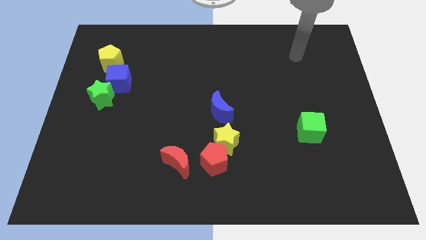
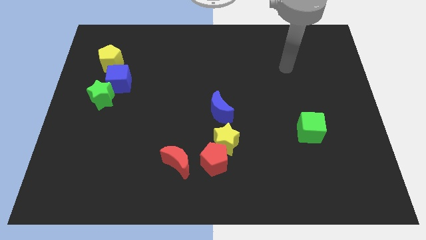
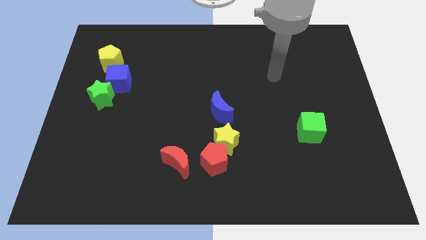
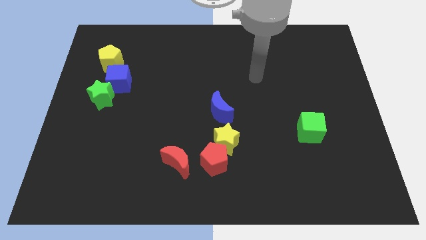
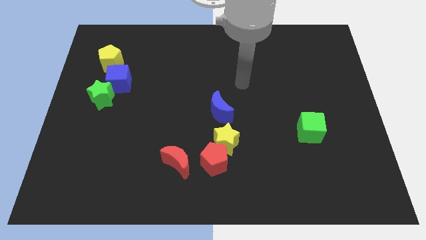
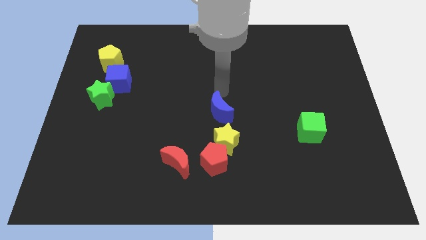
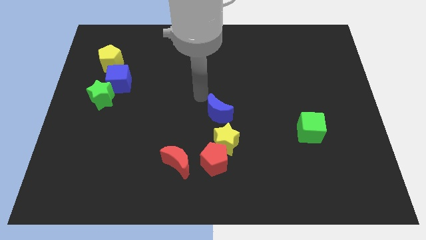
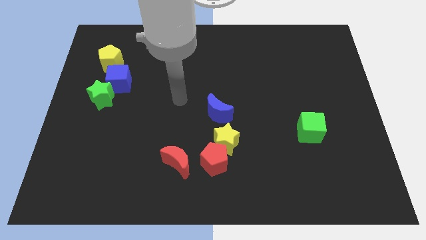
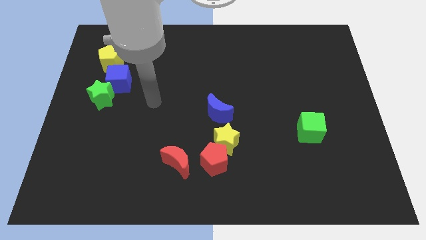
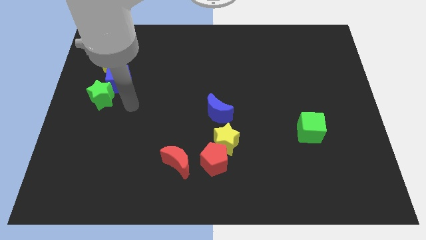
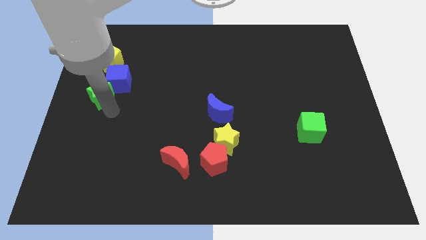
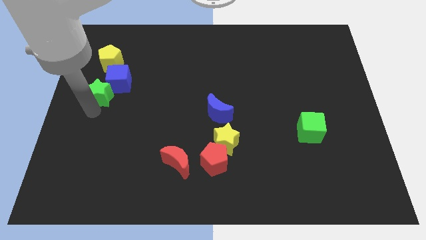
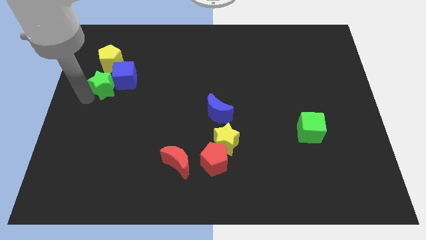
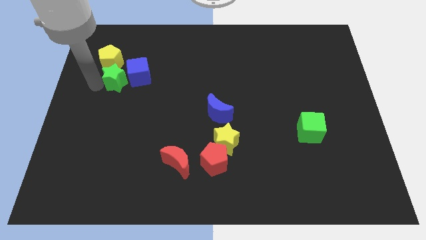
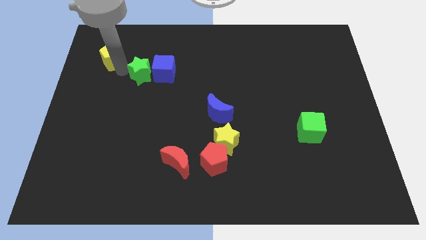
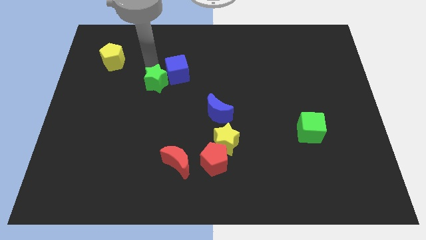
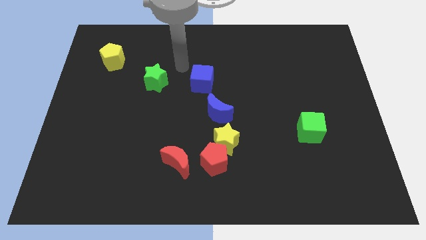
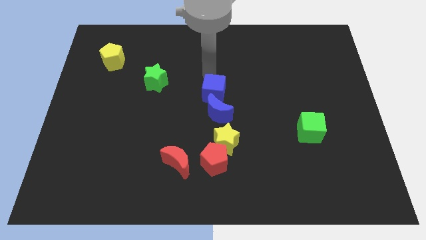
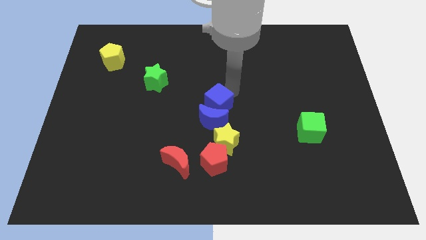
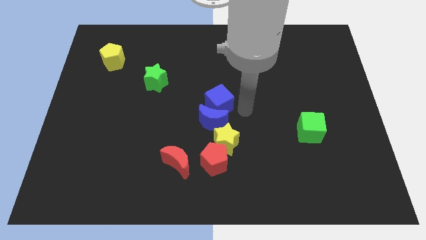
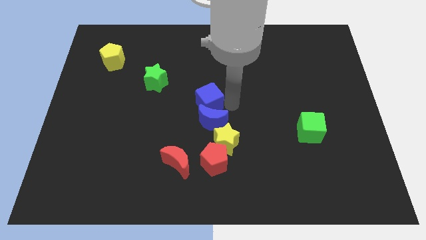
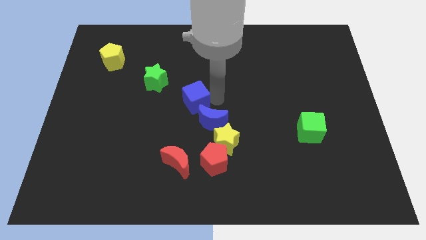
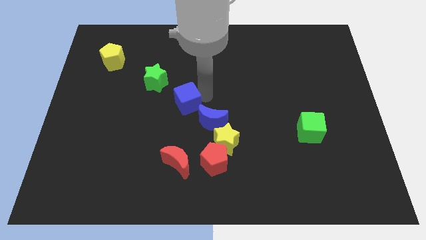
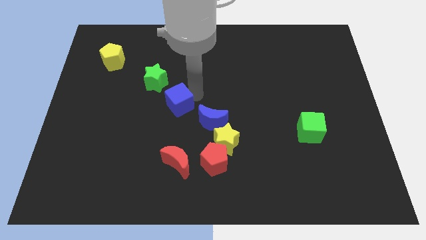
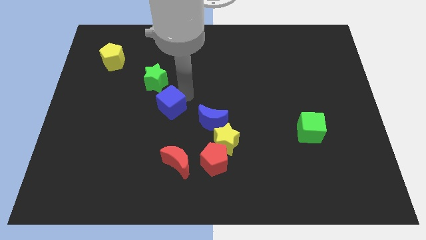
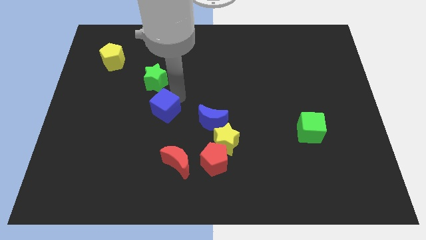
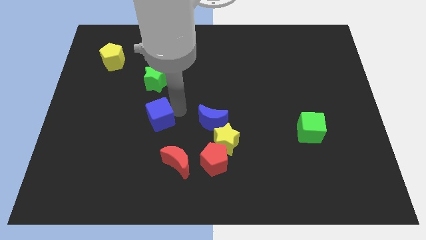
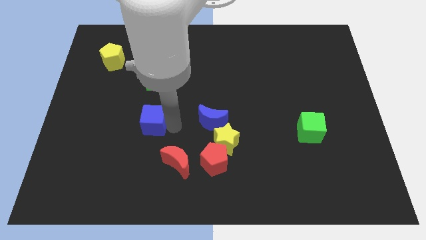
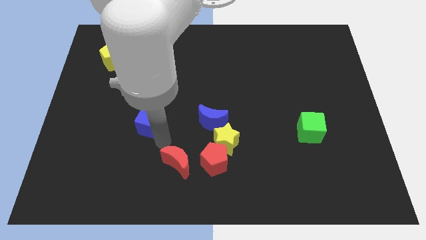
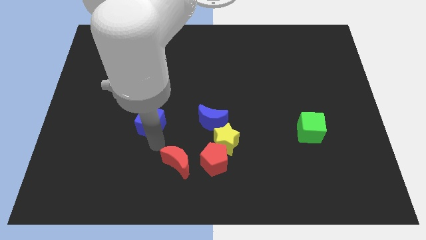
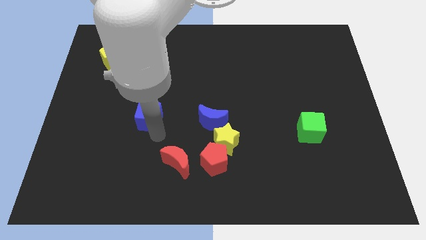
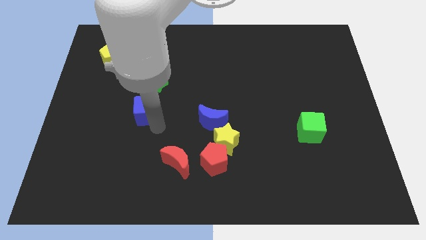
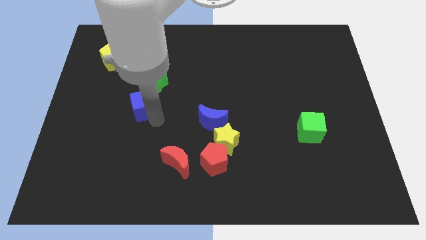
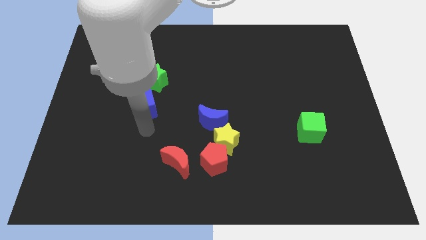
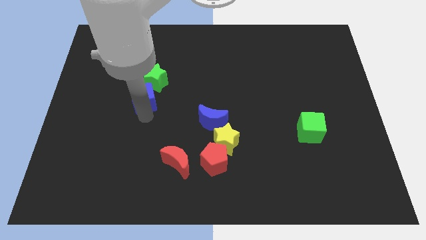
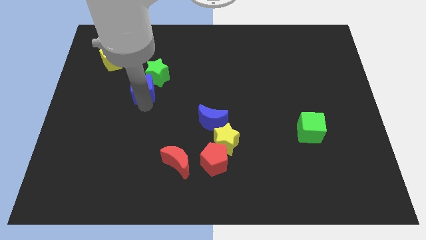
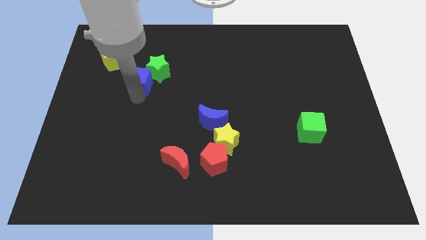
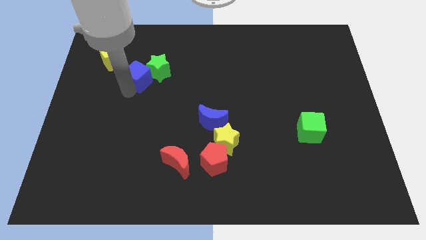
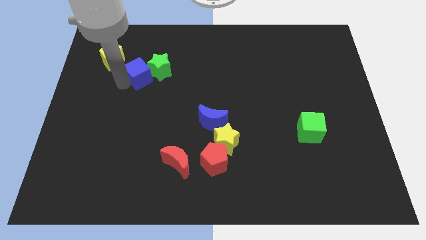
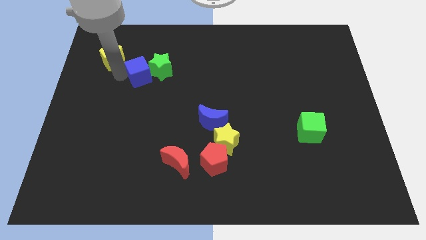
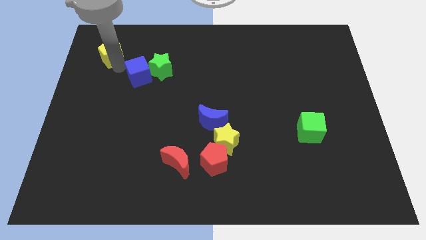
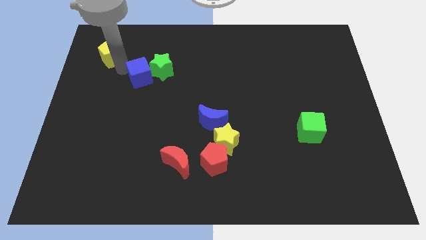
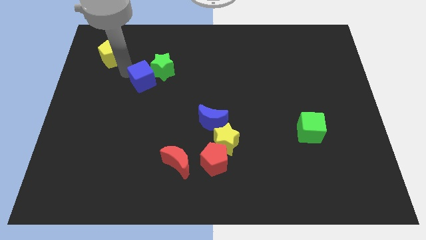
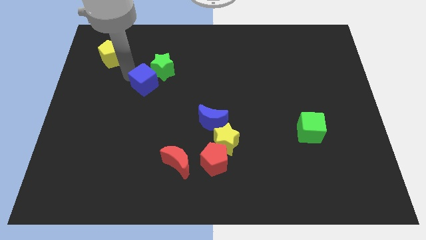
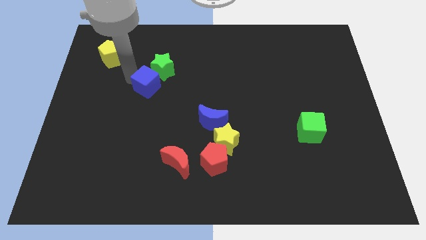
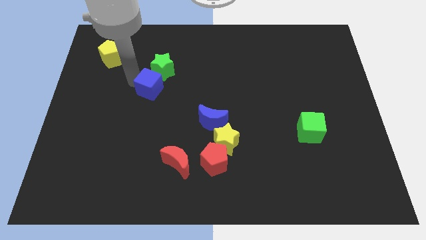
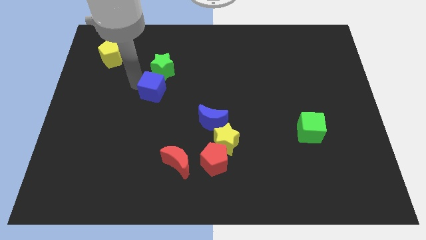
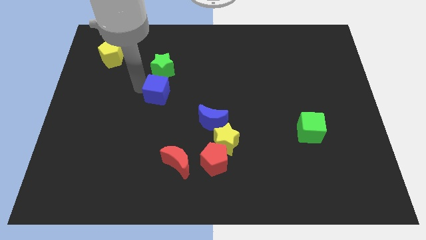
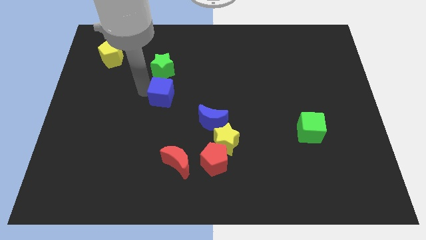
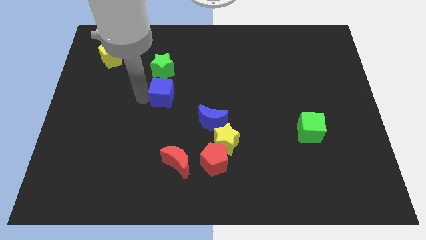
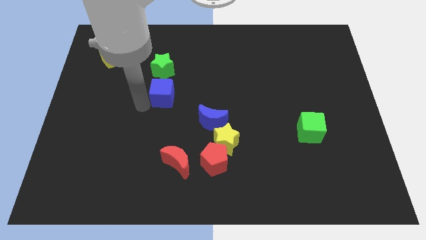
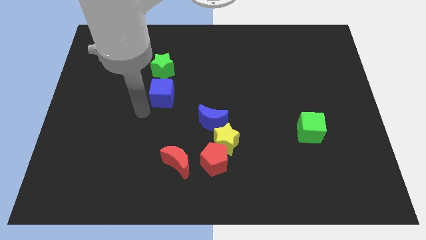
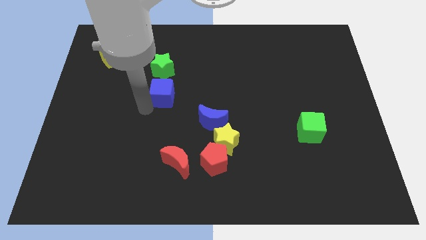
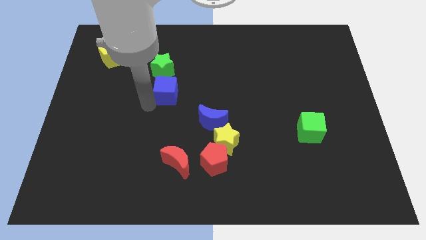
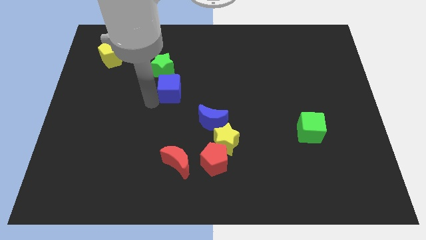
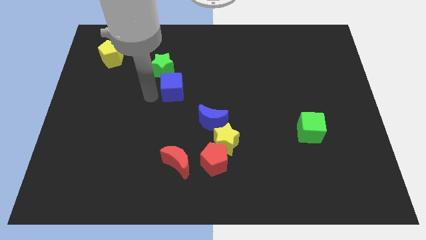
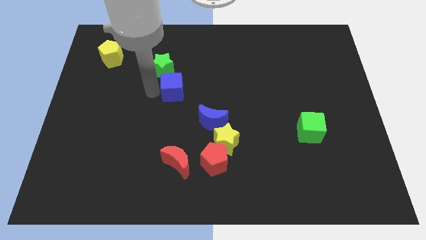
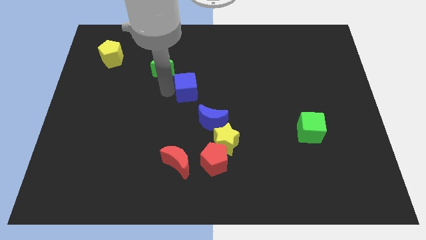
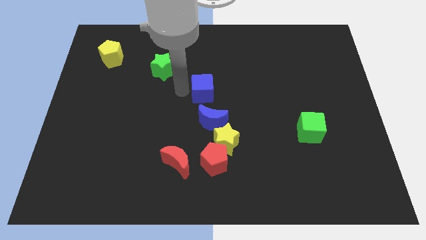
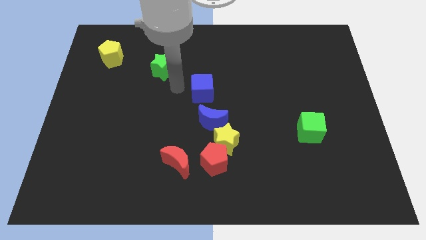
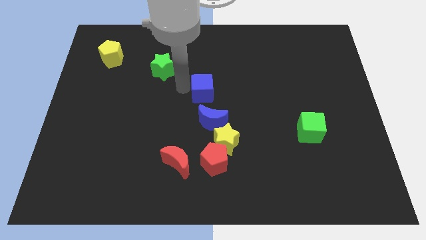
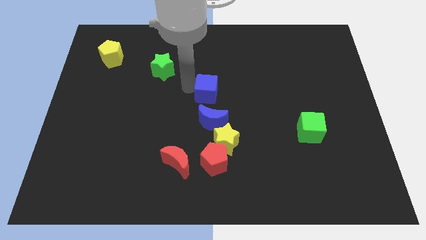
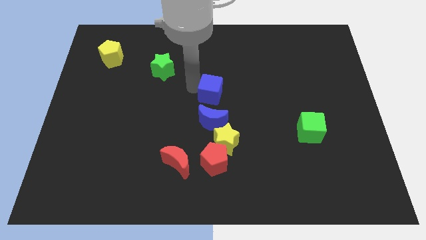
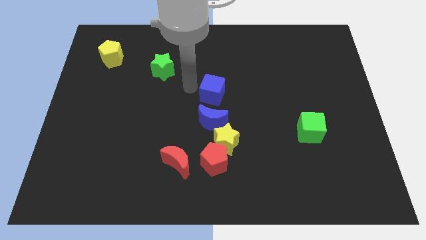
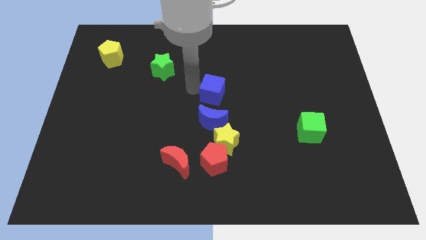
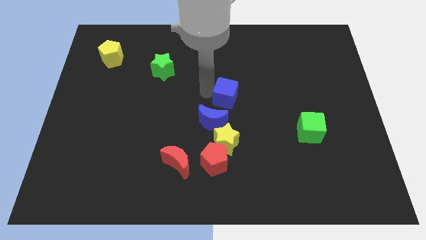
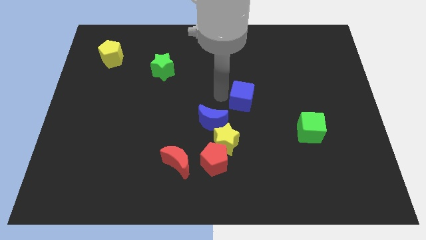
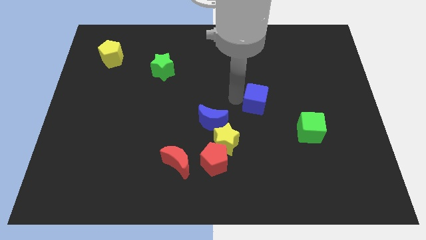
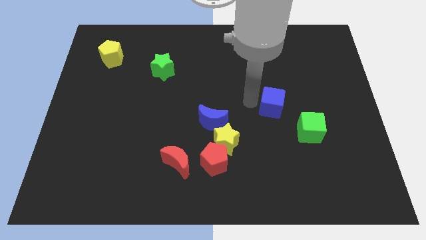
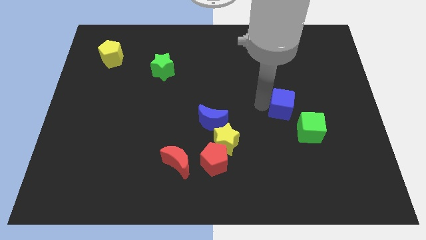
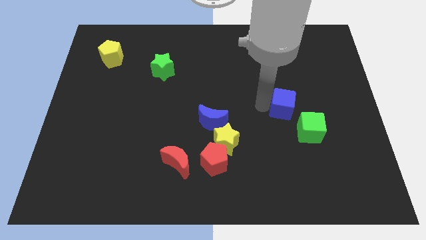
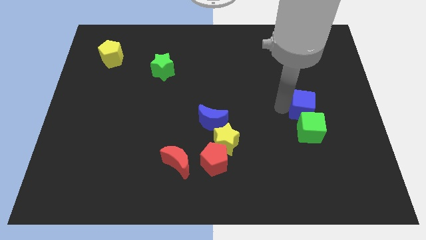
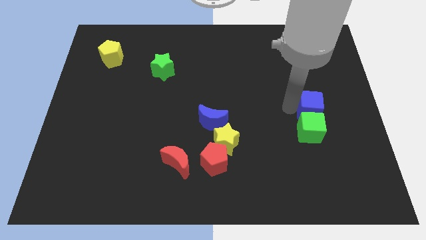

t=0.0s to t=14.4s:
push the blue cube to the top right side of the green cube
